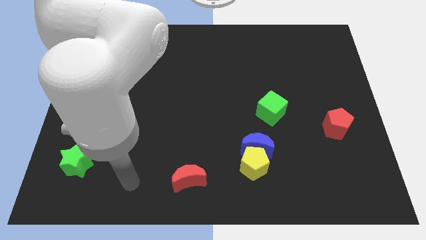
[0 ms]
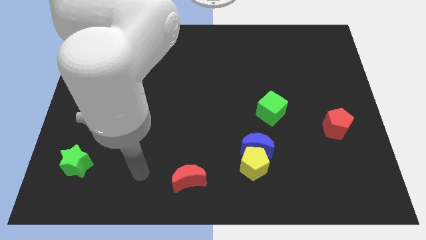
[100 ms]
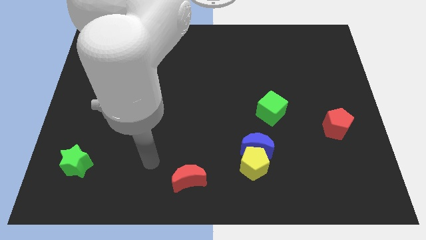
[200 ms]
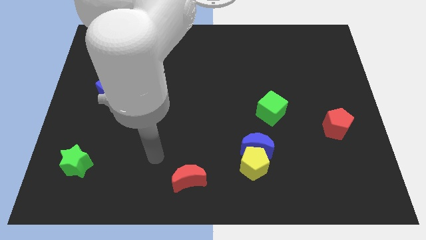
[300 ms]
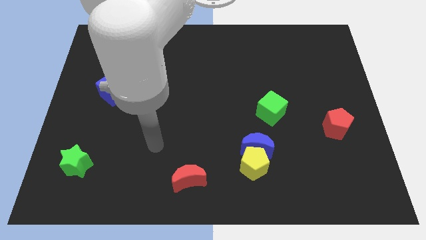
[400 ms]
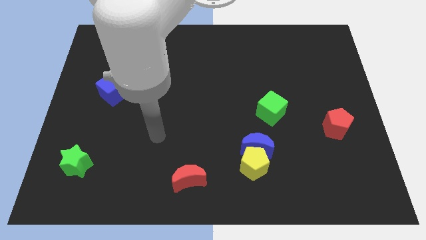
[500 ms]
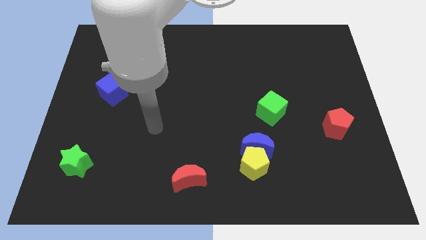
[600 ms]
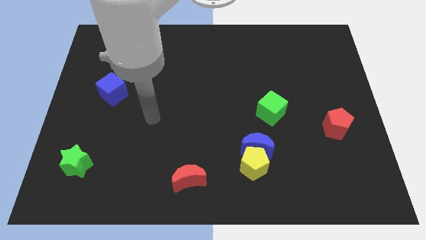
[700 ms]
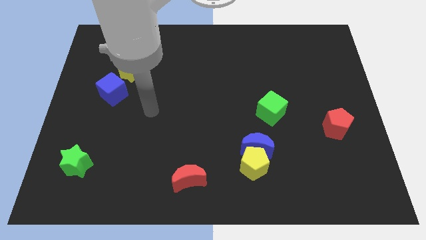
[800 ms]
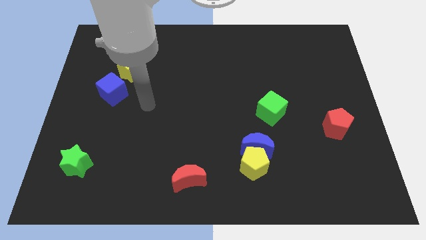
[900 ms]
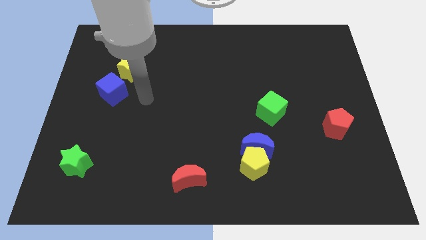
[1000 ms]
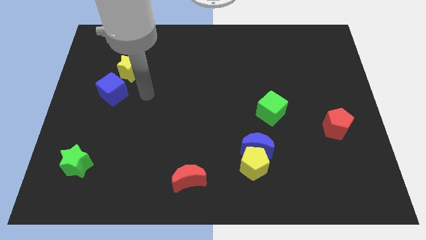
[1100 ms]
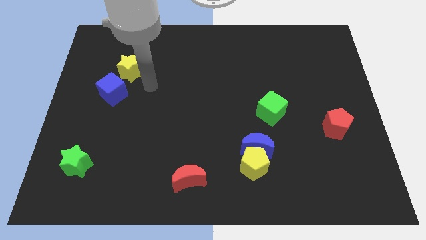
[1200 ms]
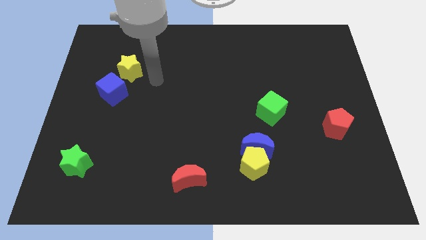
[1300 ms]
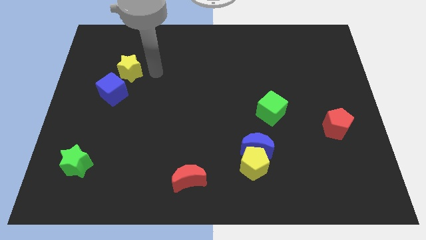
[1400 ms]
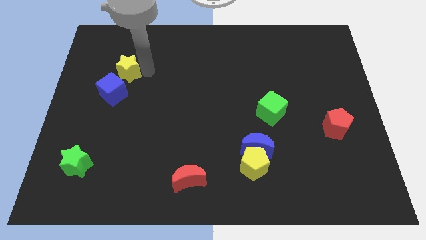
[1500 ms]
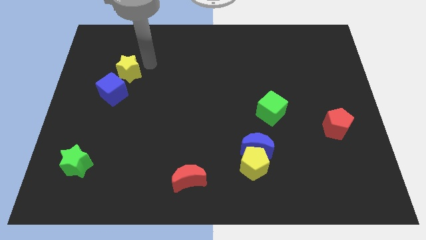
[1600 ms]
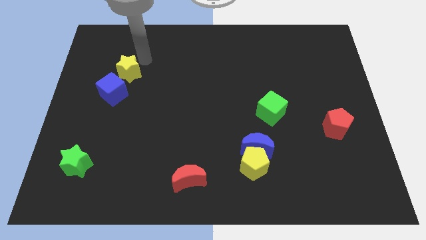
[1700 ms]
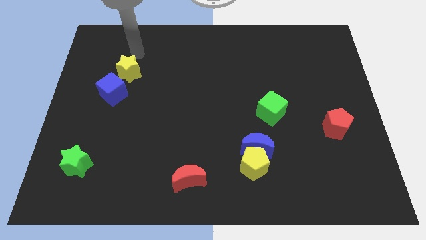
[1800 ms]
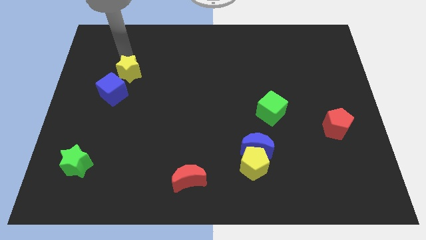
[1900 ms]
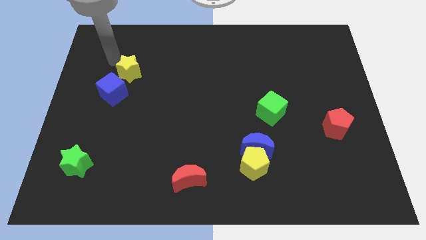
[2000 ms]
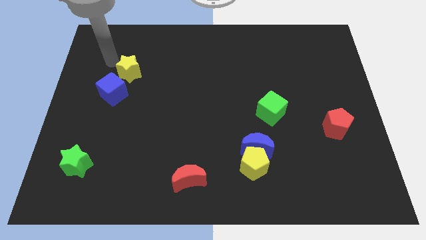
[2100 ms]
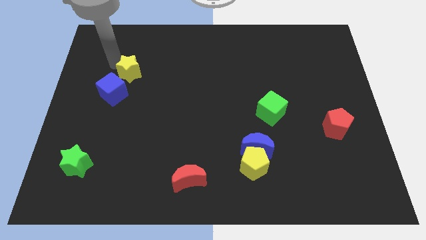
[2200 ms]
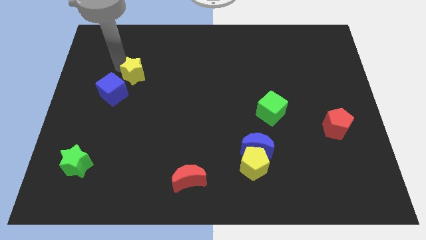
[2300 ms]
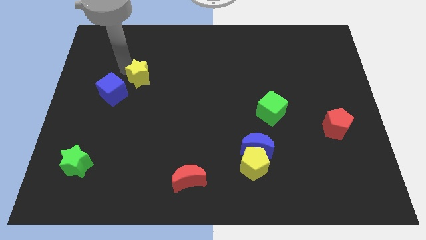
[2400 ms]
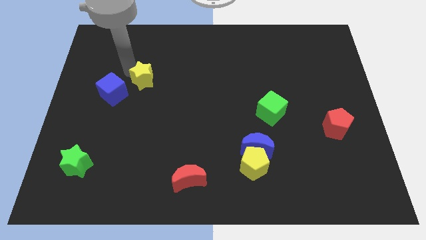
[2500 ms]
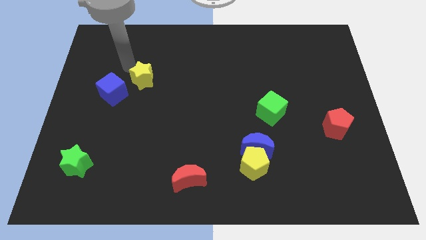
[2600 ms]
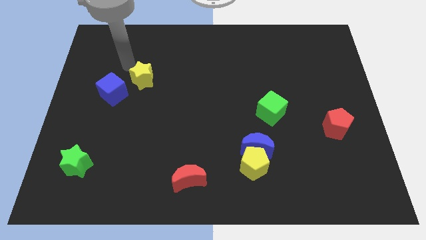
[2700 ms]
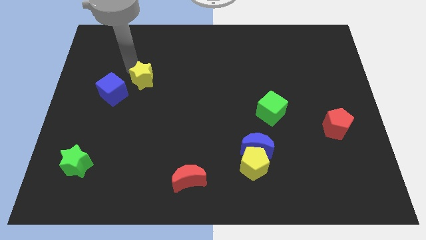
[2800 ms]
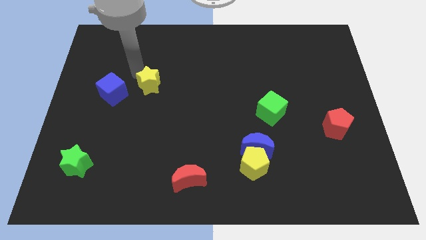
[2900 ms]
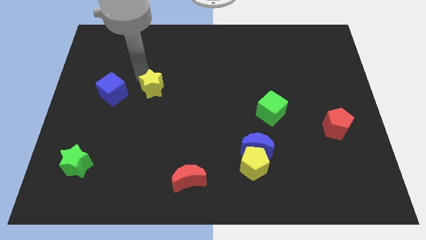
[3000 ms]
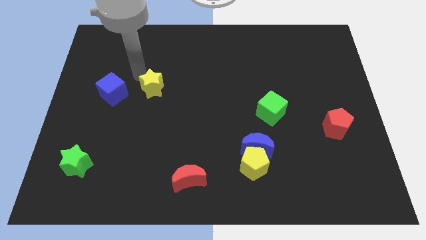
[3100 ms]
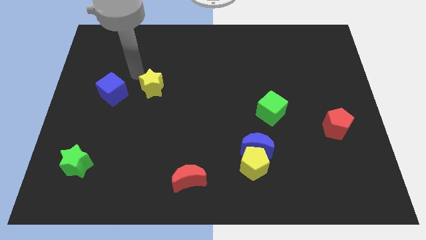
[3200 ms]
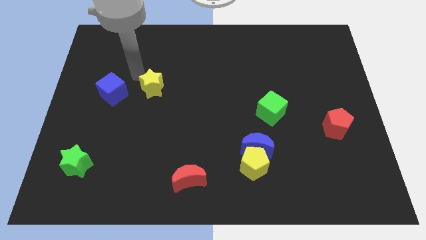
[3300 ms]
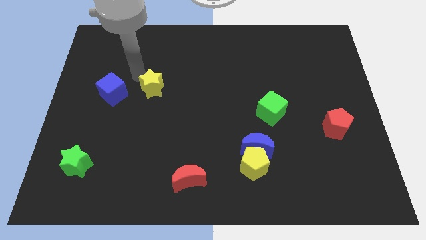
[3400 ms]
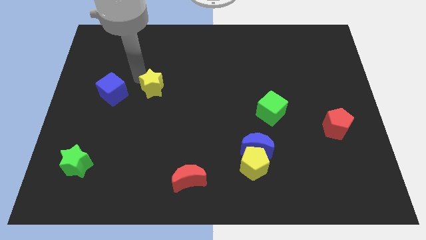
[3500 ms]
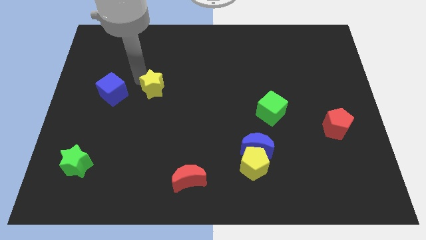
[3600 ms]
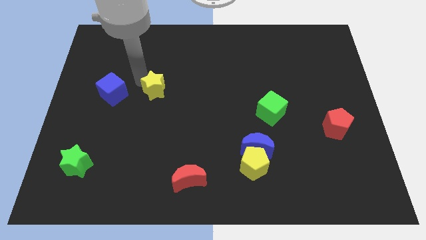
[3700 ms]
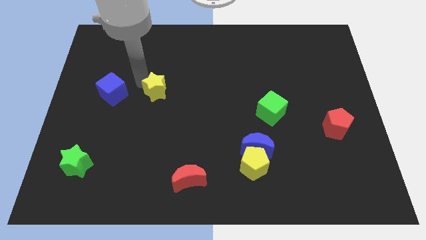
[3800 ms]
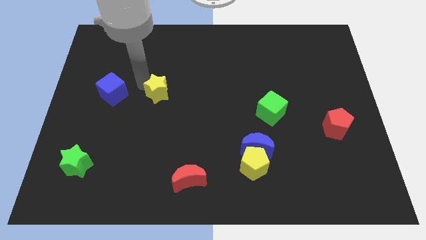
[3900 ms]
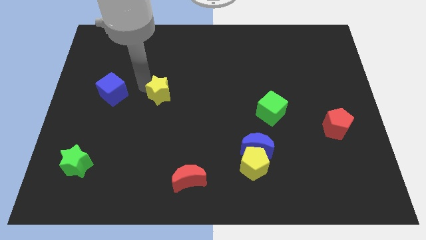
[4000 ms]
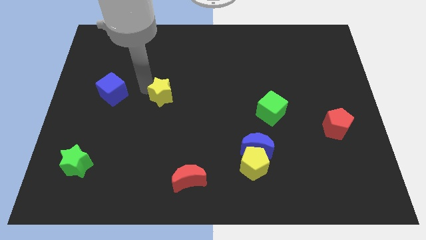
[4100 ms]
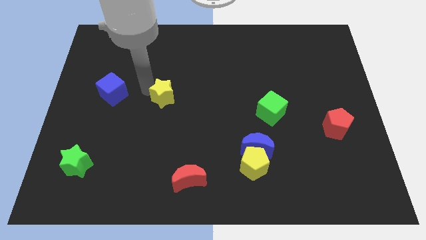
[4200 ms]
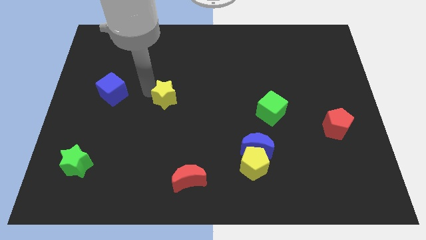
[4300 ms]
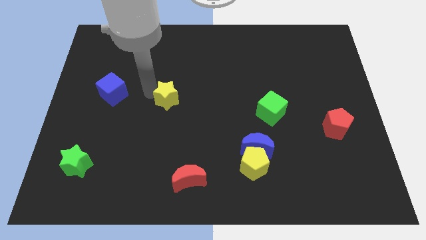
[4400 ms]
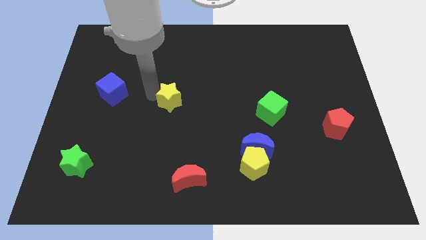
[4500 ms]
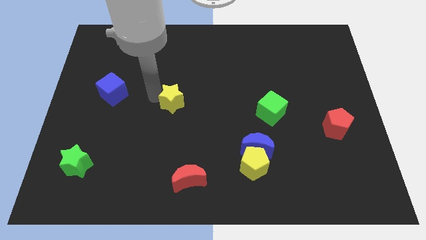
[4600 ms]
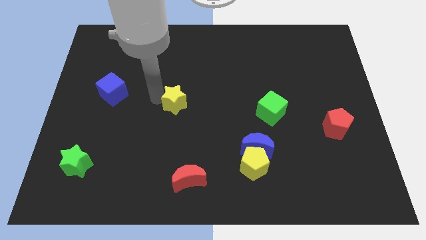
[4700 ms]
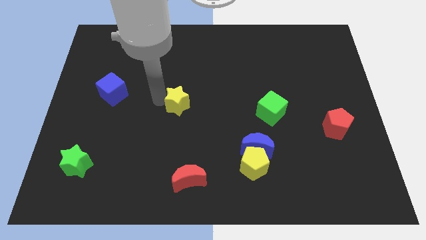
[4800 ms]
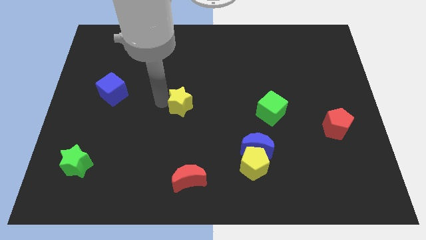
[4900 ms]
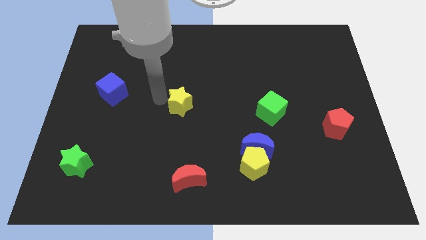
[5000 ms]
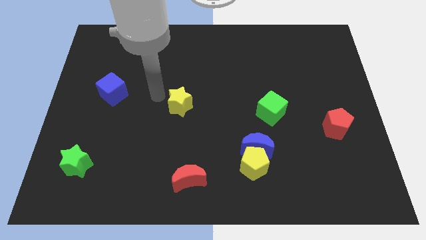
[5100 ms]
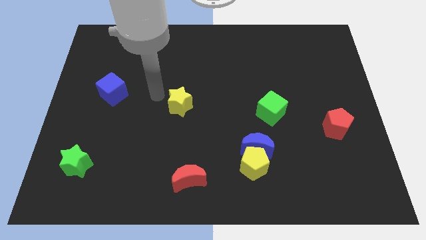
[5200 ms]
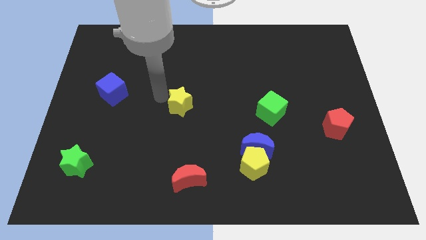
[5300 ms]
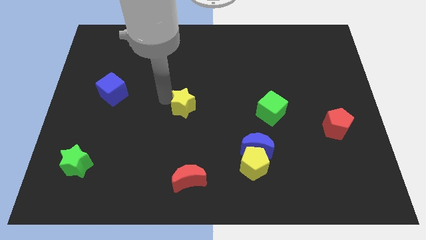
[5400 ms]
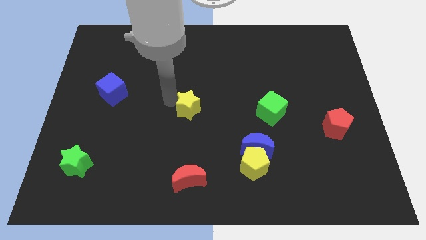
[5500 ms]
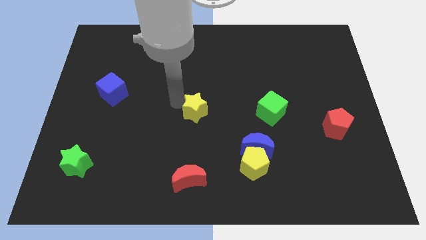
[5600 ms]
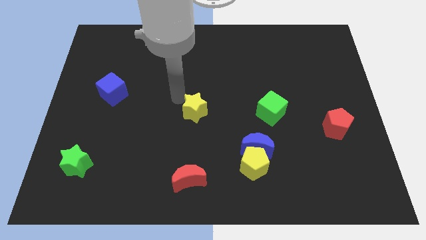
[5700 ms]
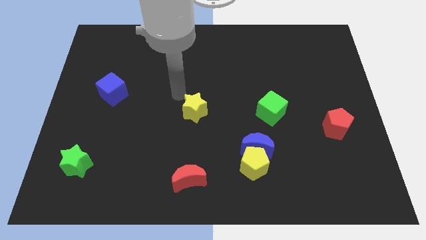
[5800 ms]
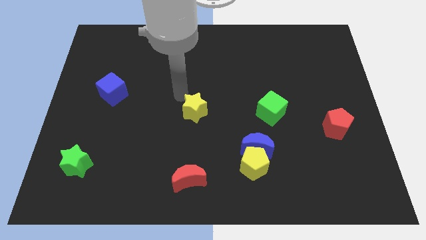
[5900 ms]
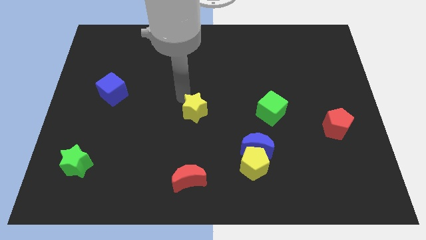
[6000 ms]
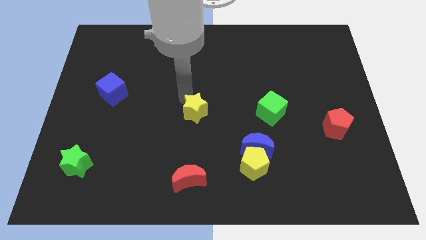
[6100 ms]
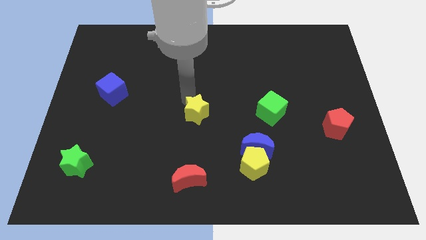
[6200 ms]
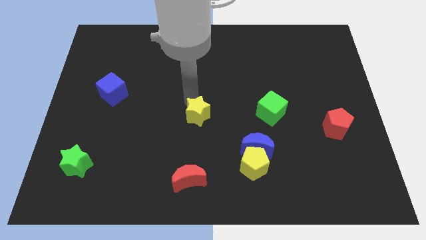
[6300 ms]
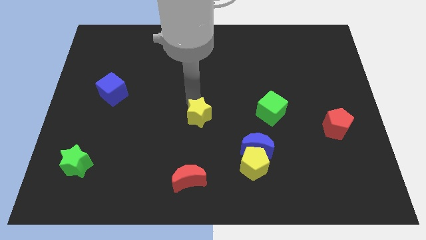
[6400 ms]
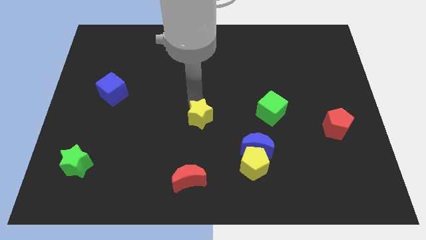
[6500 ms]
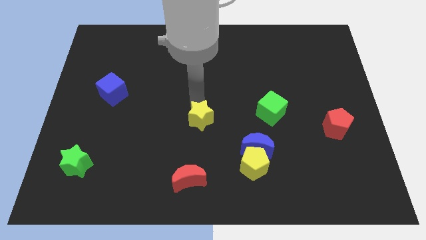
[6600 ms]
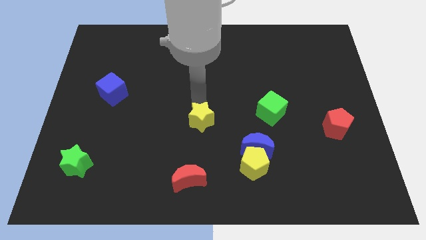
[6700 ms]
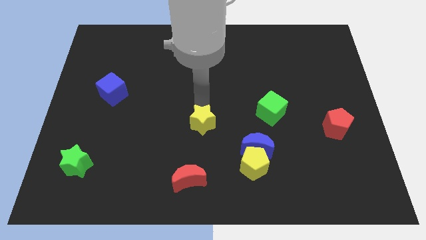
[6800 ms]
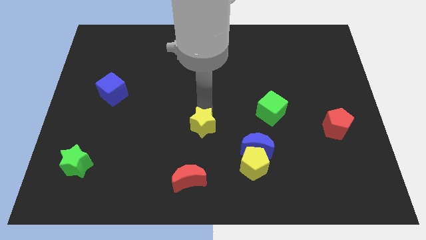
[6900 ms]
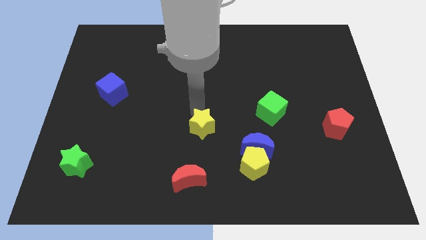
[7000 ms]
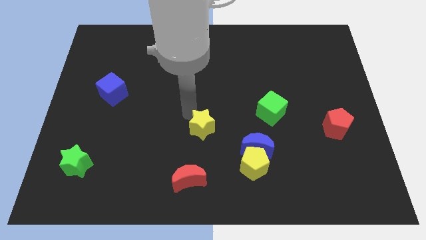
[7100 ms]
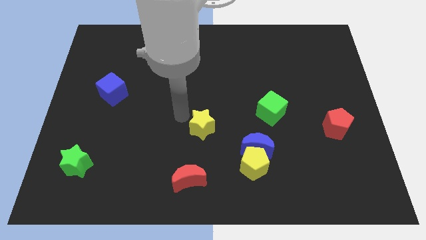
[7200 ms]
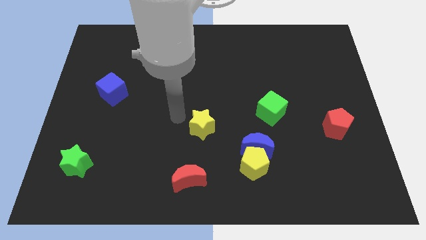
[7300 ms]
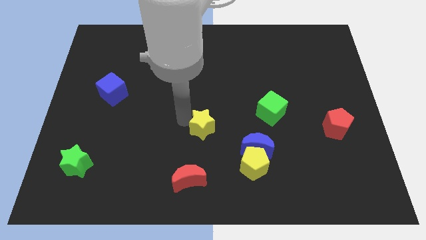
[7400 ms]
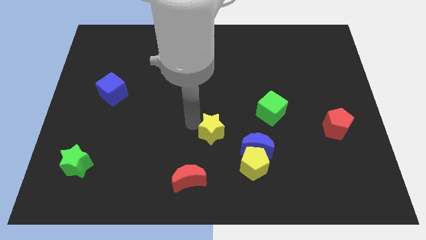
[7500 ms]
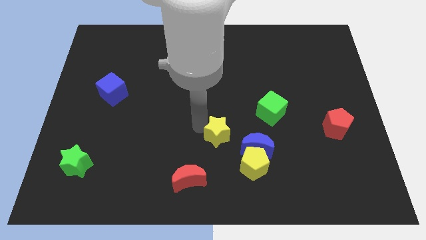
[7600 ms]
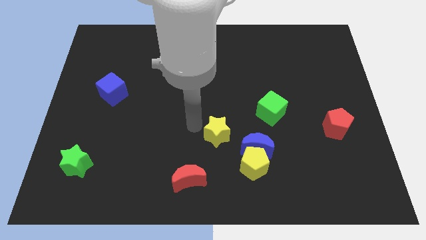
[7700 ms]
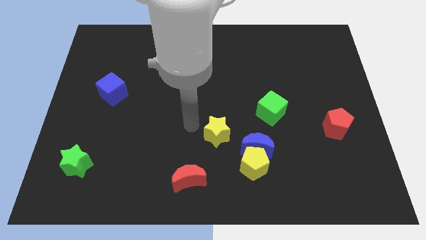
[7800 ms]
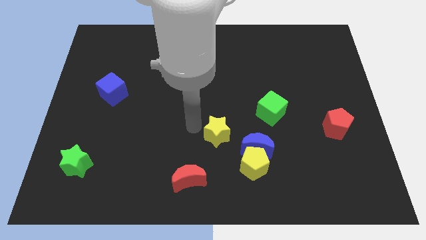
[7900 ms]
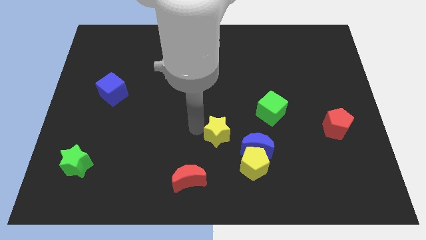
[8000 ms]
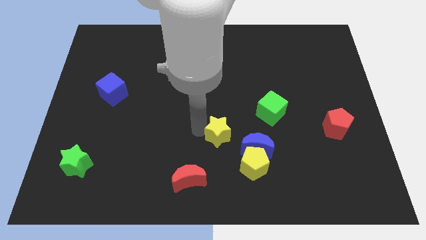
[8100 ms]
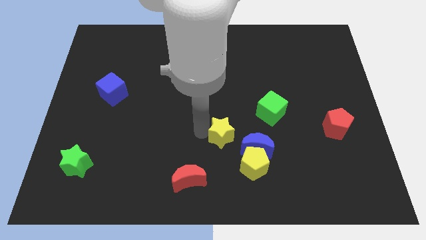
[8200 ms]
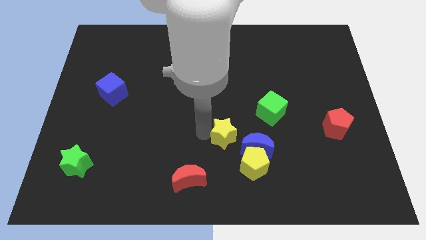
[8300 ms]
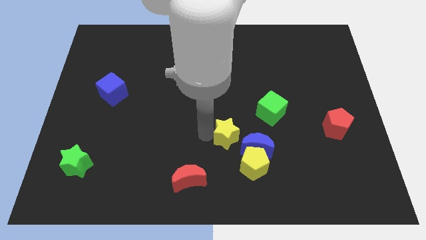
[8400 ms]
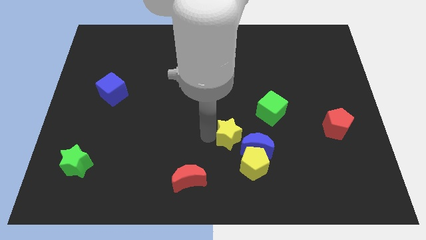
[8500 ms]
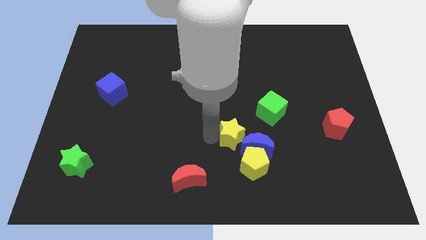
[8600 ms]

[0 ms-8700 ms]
slide the yellow star close to the blue moon
